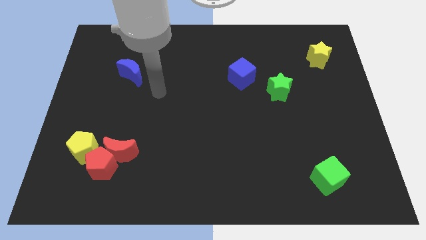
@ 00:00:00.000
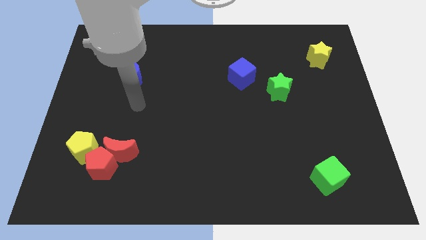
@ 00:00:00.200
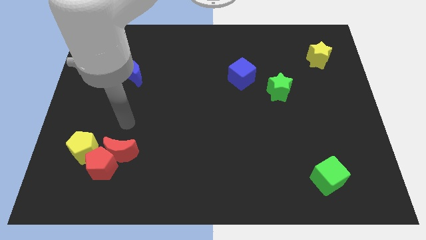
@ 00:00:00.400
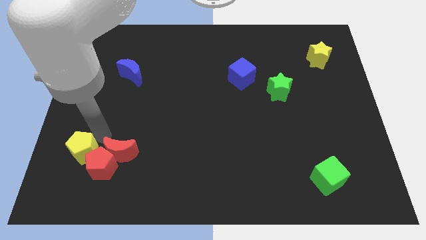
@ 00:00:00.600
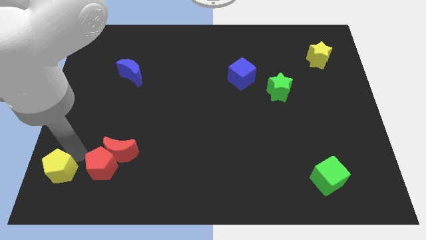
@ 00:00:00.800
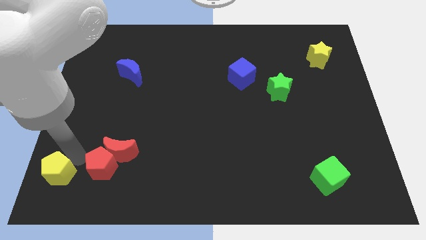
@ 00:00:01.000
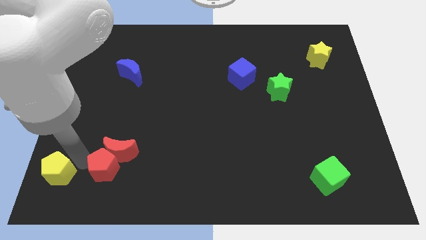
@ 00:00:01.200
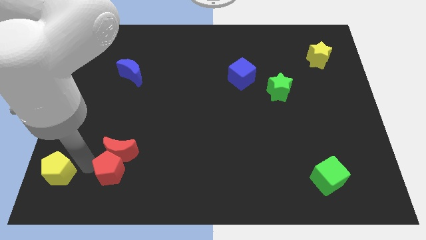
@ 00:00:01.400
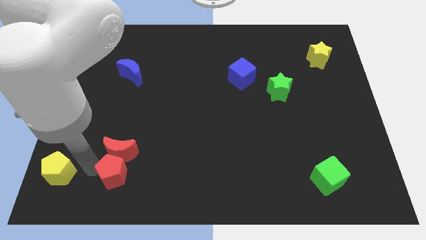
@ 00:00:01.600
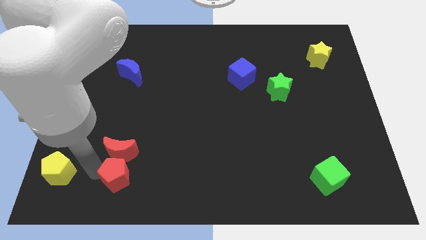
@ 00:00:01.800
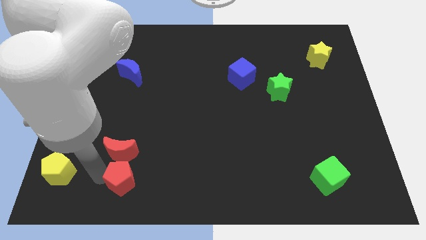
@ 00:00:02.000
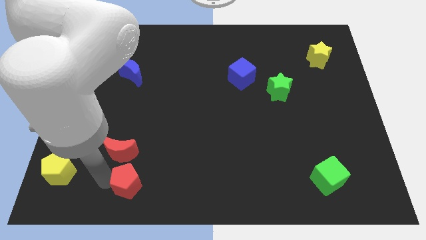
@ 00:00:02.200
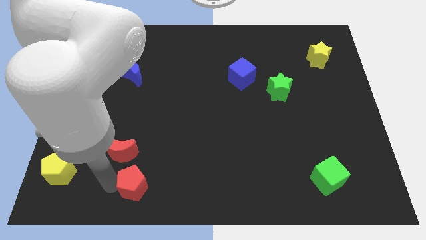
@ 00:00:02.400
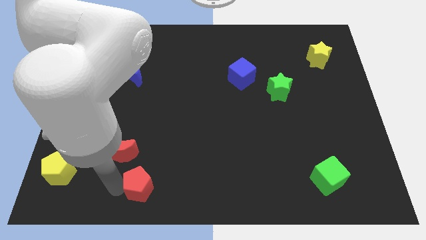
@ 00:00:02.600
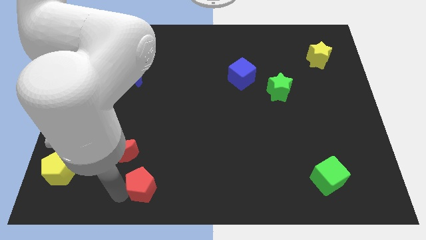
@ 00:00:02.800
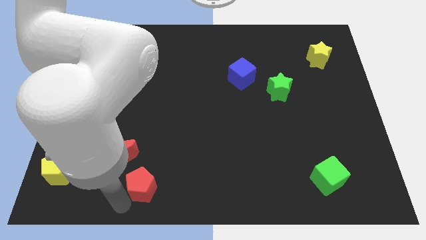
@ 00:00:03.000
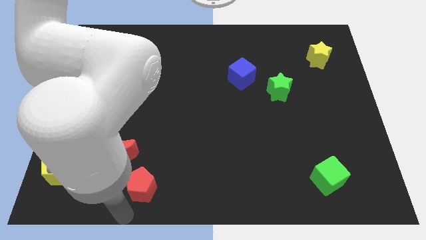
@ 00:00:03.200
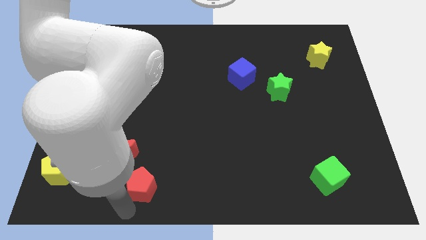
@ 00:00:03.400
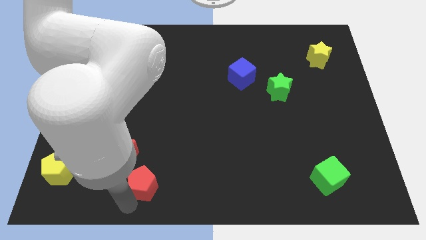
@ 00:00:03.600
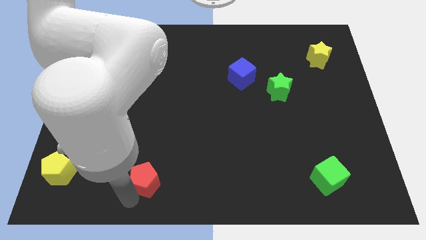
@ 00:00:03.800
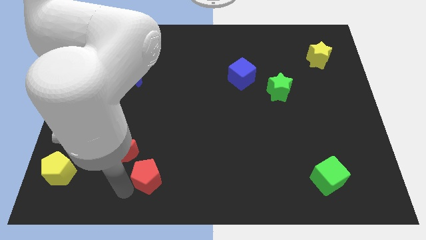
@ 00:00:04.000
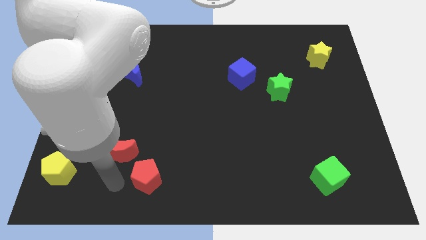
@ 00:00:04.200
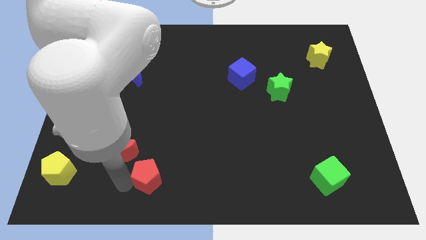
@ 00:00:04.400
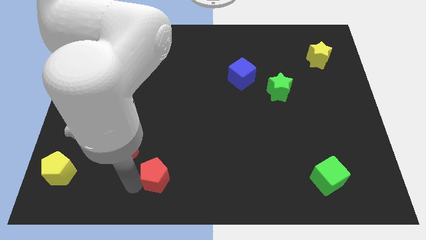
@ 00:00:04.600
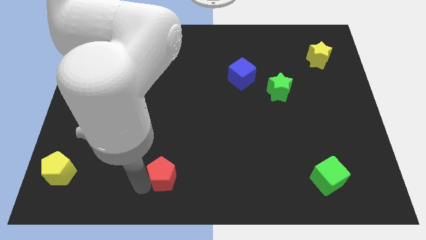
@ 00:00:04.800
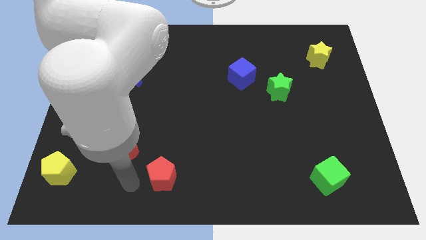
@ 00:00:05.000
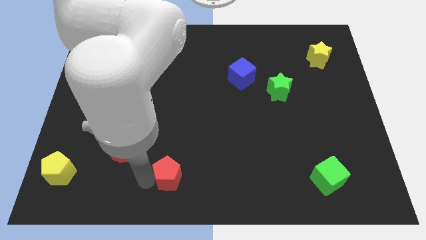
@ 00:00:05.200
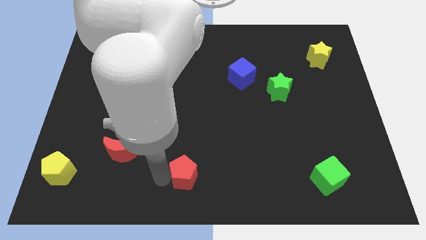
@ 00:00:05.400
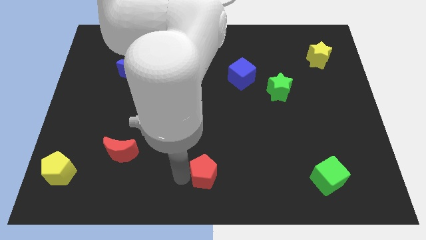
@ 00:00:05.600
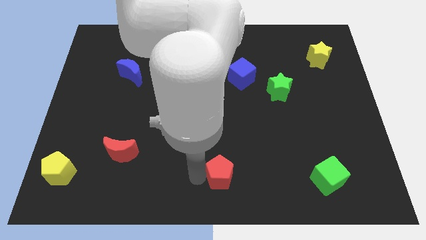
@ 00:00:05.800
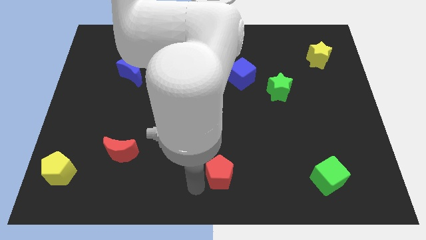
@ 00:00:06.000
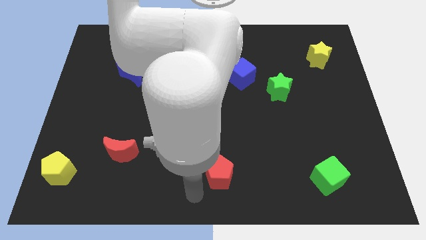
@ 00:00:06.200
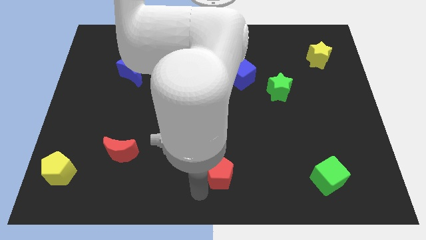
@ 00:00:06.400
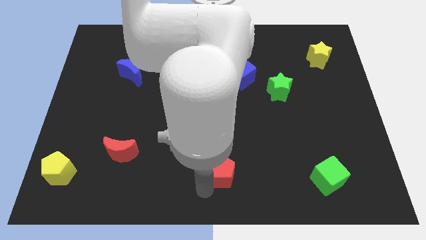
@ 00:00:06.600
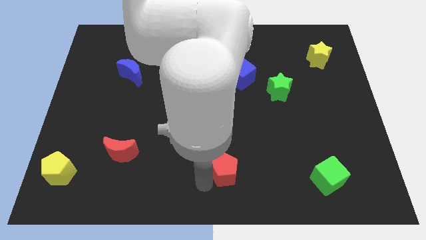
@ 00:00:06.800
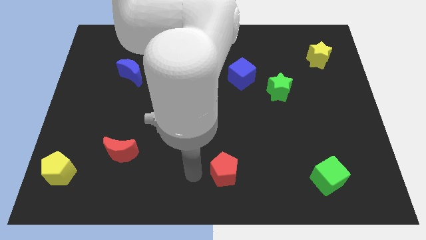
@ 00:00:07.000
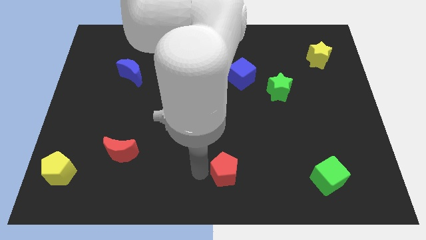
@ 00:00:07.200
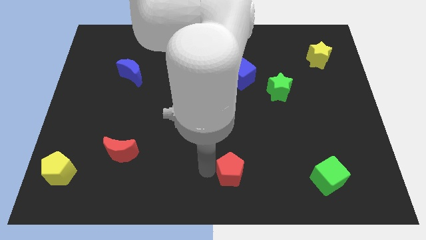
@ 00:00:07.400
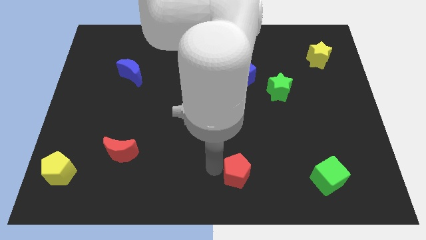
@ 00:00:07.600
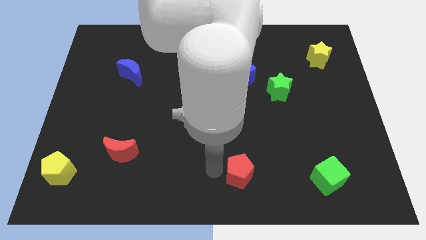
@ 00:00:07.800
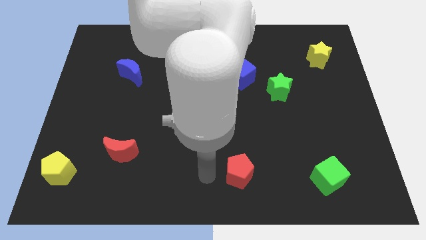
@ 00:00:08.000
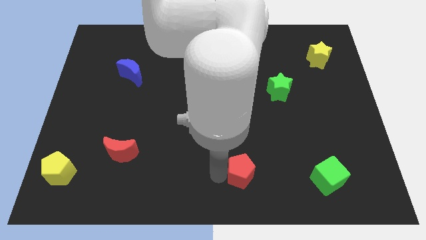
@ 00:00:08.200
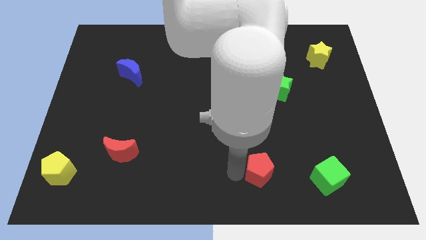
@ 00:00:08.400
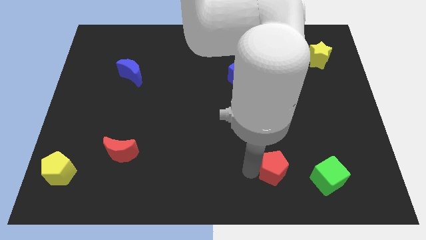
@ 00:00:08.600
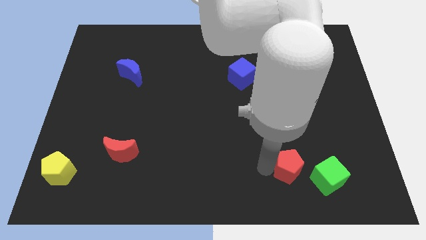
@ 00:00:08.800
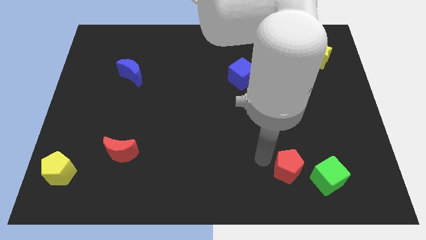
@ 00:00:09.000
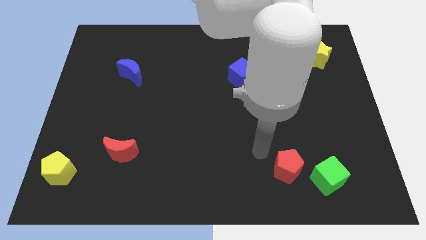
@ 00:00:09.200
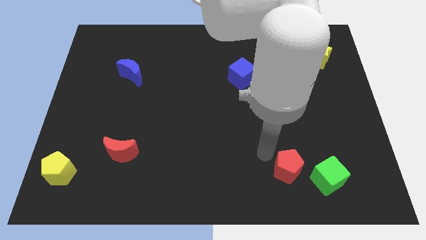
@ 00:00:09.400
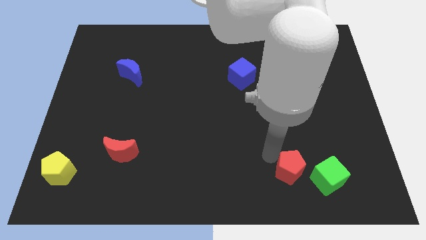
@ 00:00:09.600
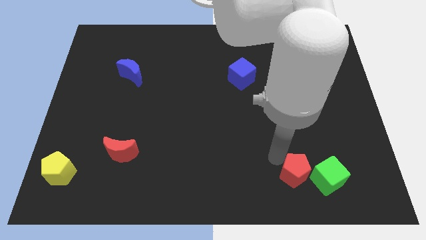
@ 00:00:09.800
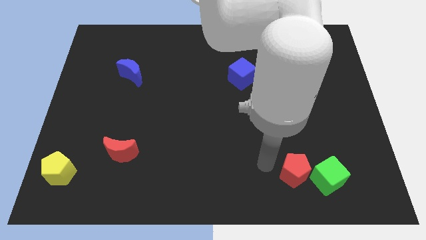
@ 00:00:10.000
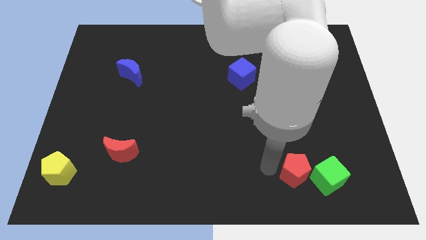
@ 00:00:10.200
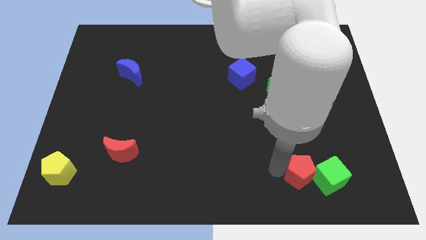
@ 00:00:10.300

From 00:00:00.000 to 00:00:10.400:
move the red pentagon close to the green cube

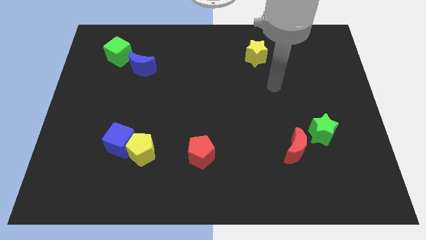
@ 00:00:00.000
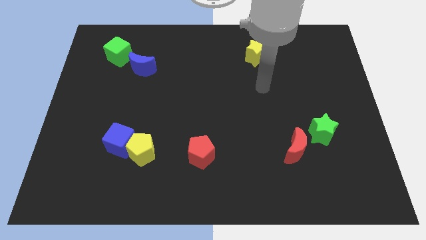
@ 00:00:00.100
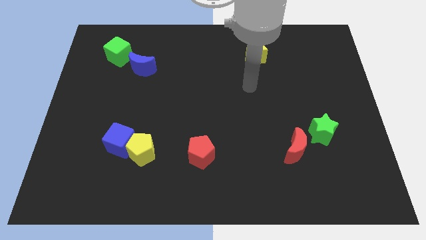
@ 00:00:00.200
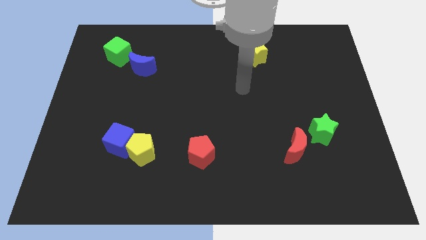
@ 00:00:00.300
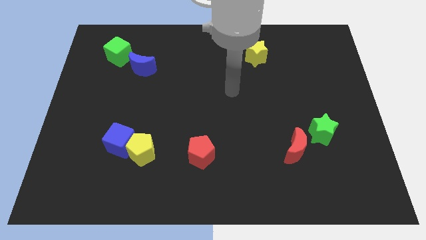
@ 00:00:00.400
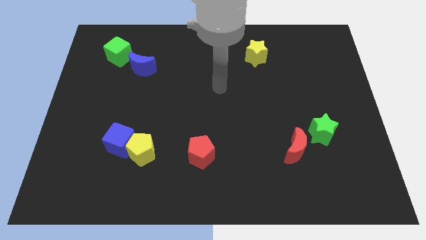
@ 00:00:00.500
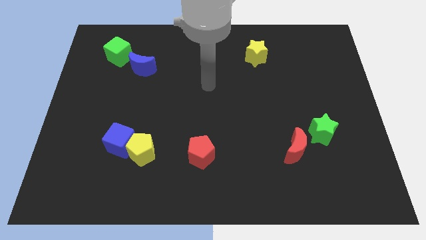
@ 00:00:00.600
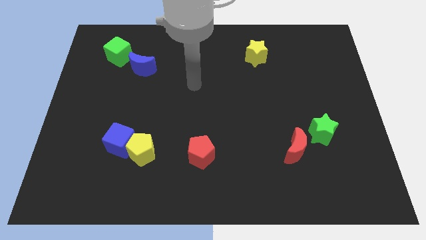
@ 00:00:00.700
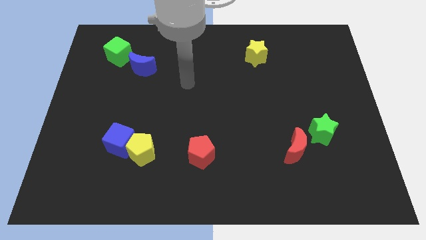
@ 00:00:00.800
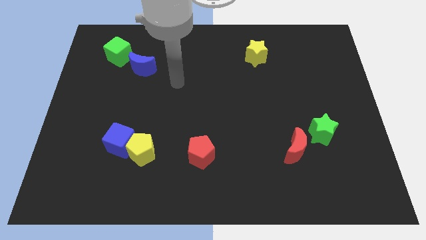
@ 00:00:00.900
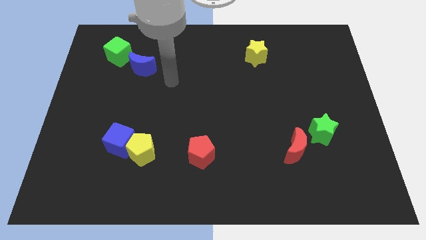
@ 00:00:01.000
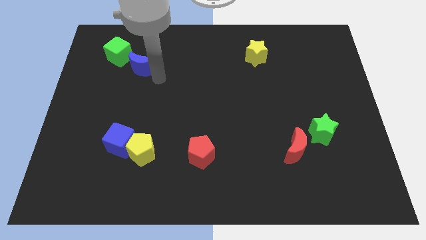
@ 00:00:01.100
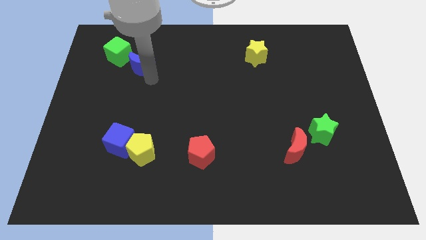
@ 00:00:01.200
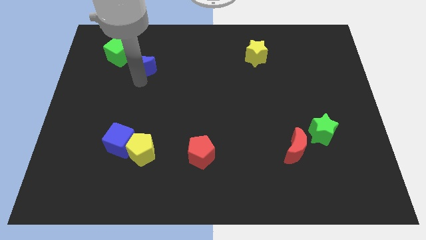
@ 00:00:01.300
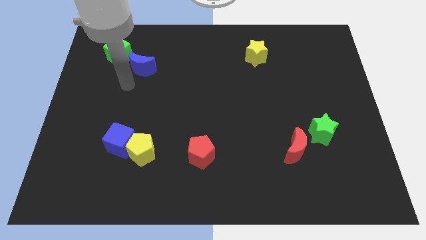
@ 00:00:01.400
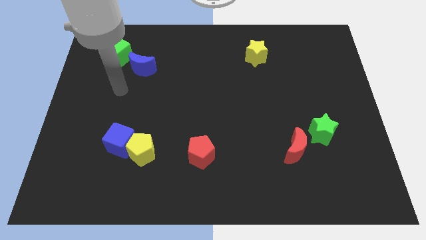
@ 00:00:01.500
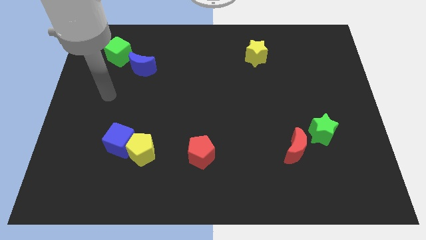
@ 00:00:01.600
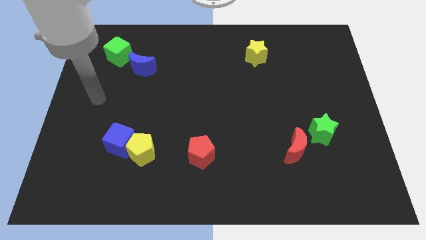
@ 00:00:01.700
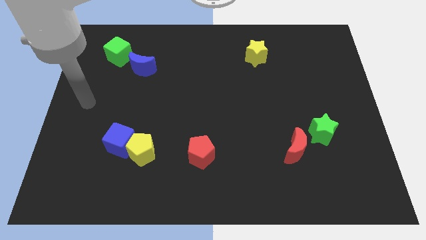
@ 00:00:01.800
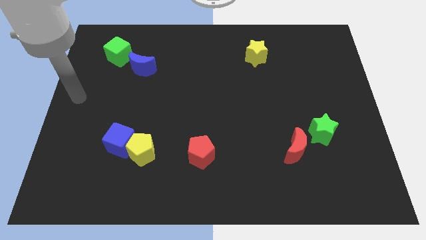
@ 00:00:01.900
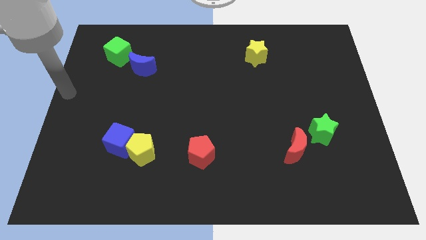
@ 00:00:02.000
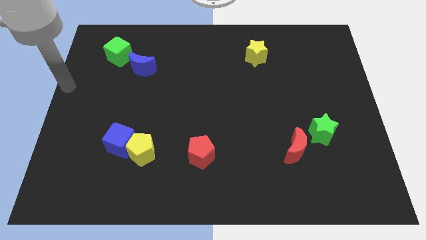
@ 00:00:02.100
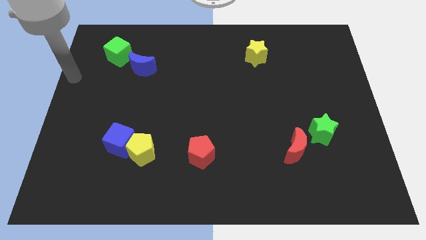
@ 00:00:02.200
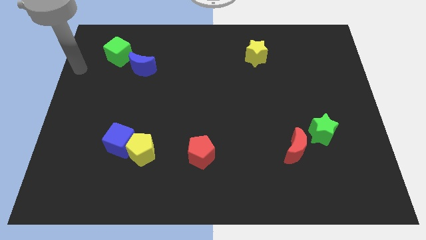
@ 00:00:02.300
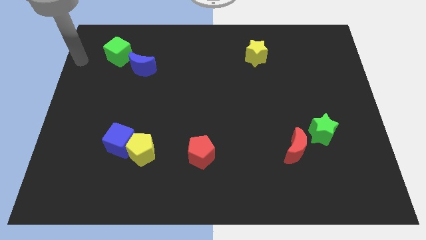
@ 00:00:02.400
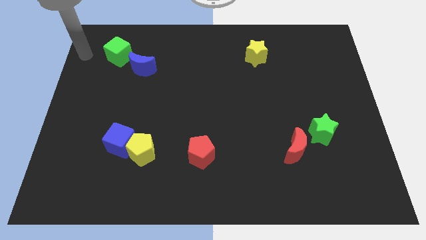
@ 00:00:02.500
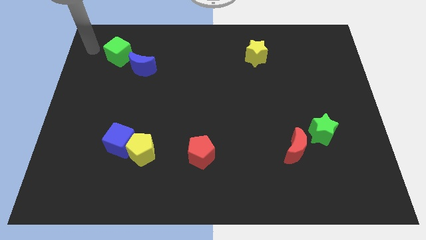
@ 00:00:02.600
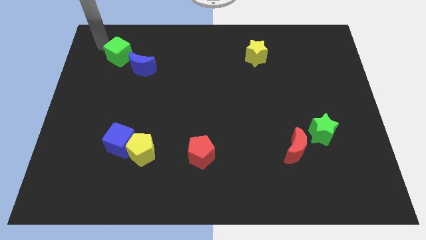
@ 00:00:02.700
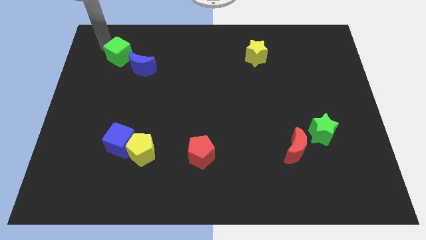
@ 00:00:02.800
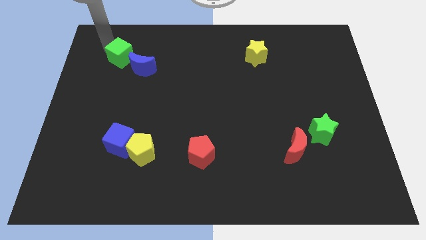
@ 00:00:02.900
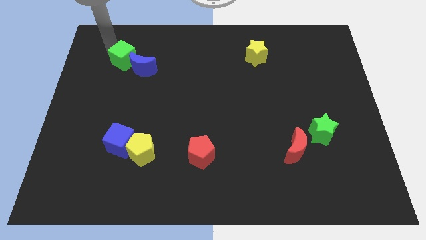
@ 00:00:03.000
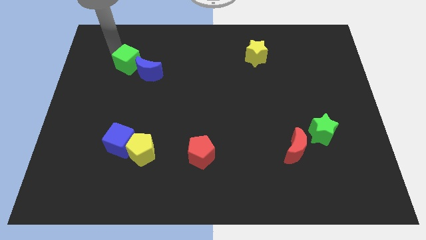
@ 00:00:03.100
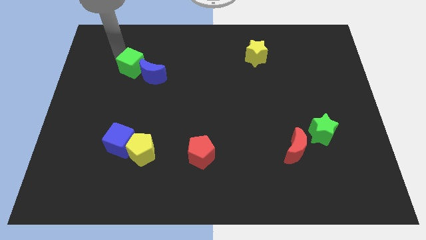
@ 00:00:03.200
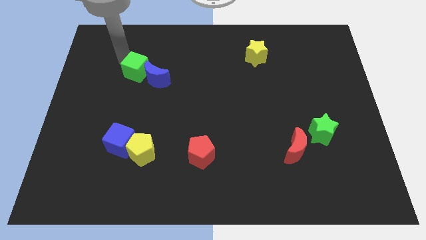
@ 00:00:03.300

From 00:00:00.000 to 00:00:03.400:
put the green cube towards the blue moon
